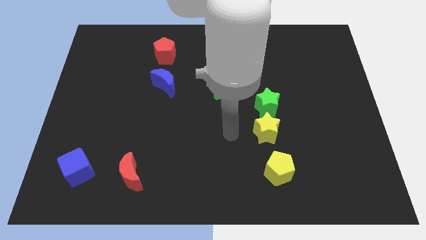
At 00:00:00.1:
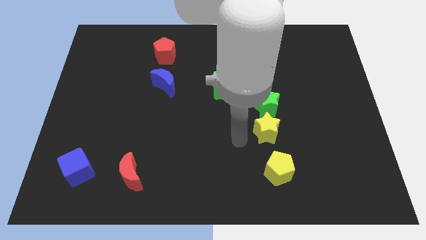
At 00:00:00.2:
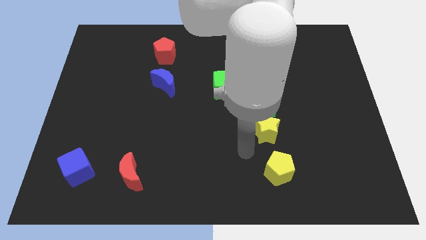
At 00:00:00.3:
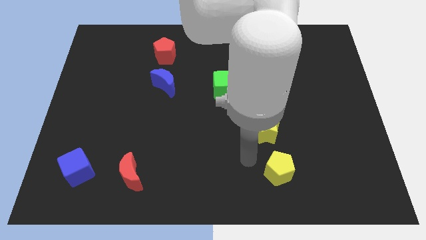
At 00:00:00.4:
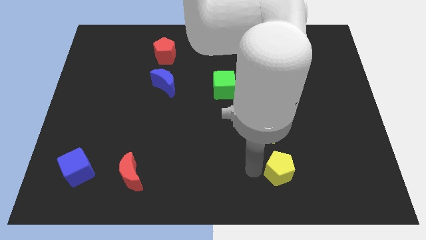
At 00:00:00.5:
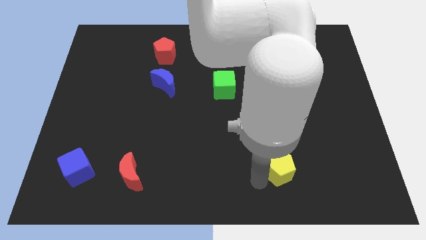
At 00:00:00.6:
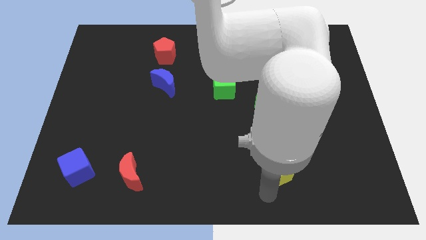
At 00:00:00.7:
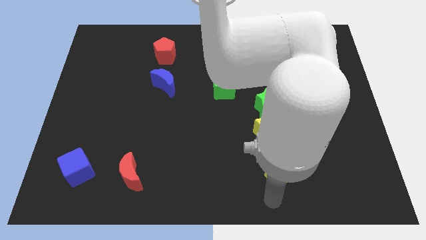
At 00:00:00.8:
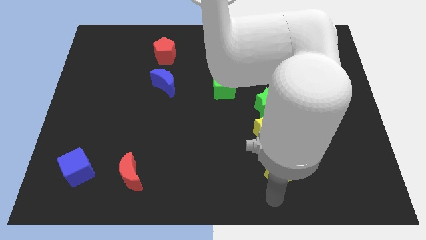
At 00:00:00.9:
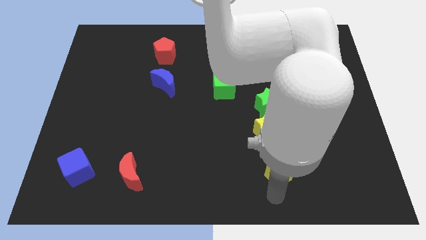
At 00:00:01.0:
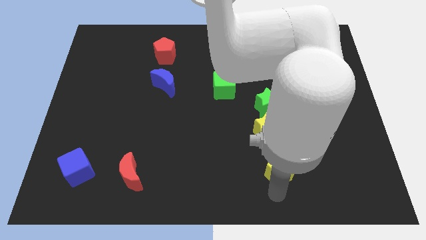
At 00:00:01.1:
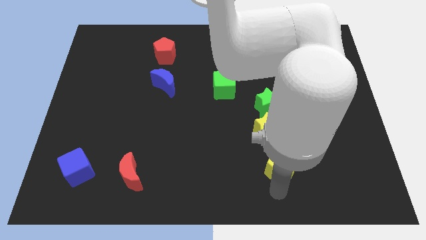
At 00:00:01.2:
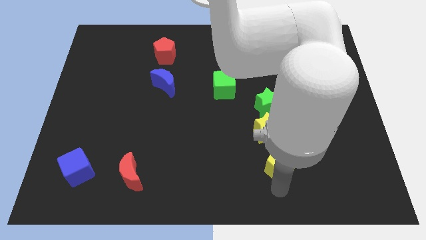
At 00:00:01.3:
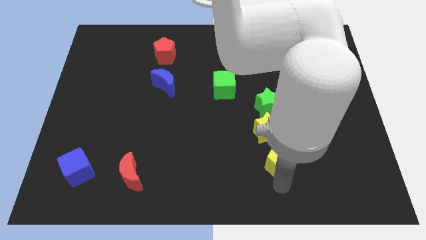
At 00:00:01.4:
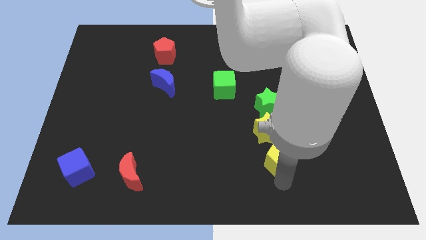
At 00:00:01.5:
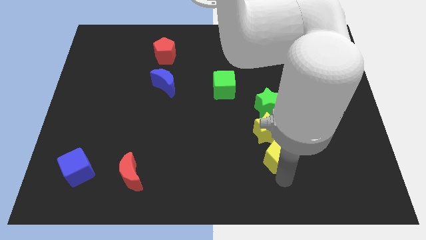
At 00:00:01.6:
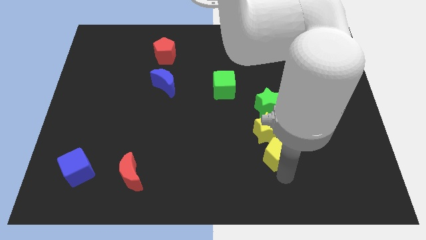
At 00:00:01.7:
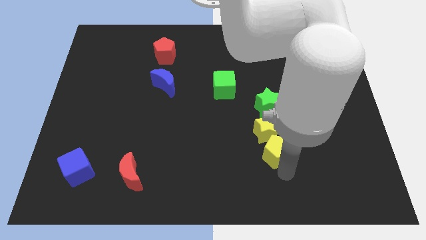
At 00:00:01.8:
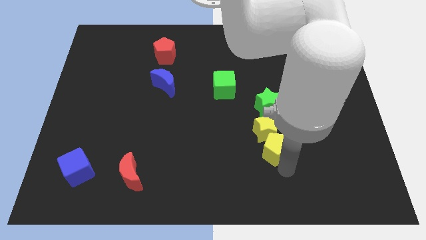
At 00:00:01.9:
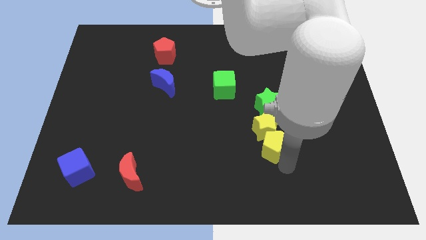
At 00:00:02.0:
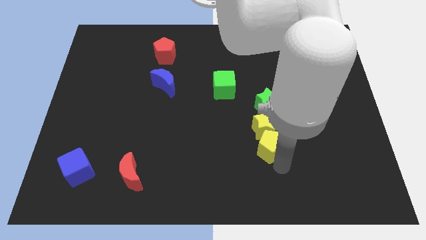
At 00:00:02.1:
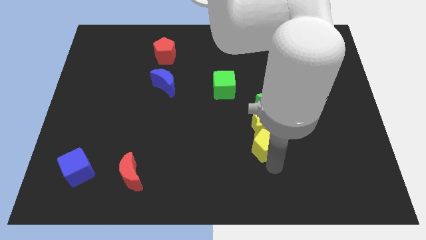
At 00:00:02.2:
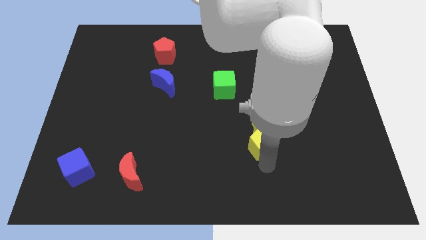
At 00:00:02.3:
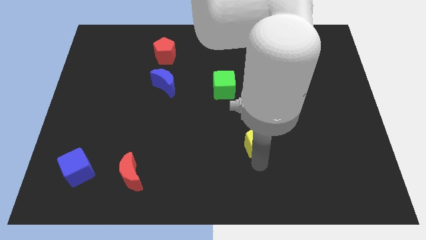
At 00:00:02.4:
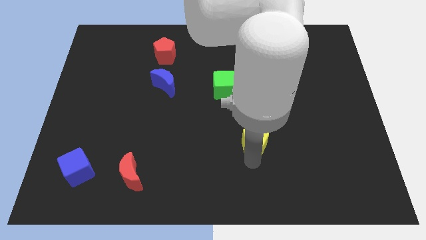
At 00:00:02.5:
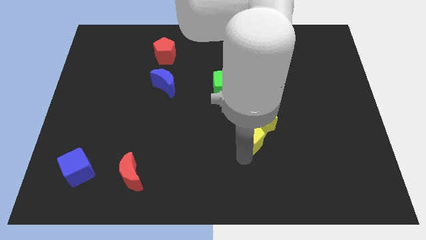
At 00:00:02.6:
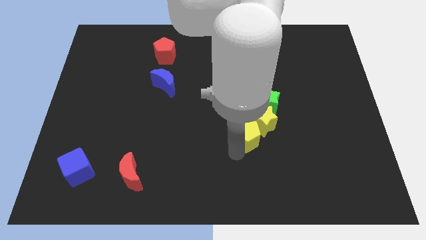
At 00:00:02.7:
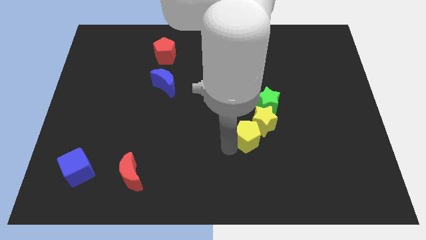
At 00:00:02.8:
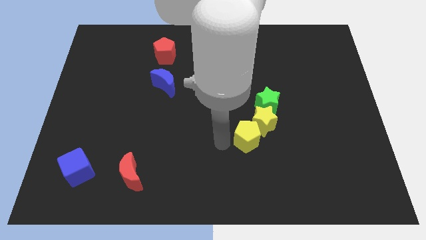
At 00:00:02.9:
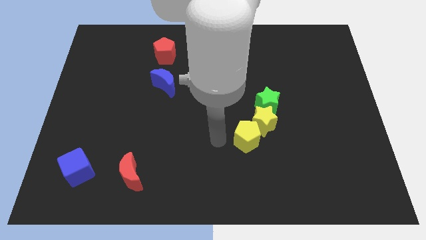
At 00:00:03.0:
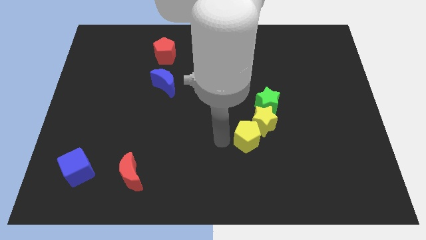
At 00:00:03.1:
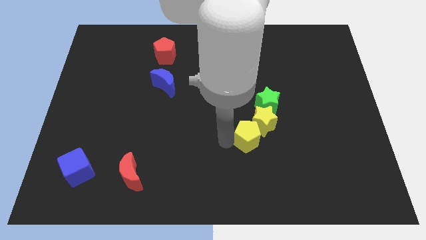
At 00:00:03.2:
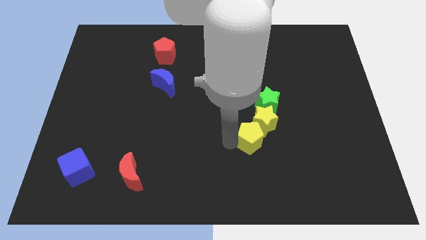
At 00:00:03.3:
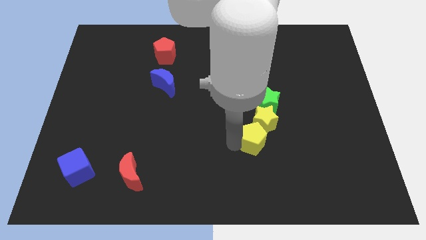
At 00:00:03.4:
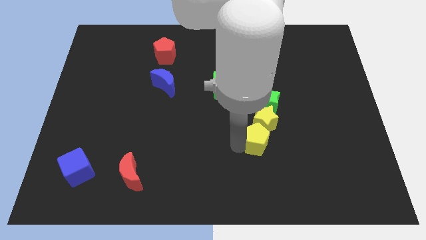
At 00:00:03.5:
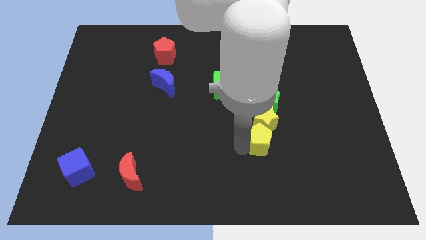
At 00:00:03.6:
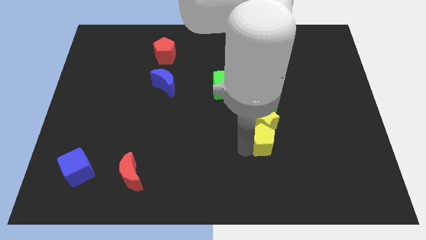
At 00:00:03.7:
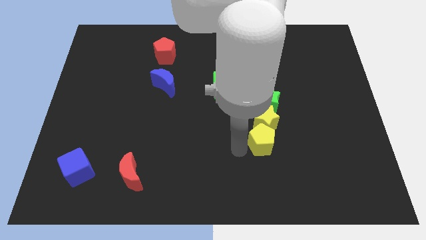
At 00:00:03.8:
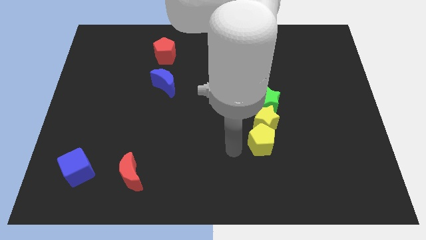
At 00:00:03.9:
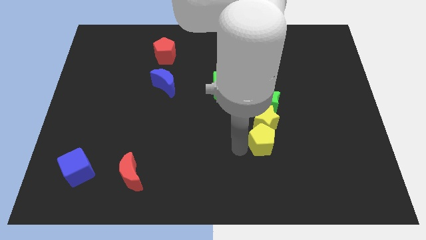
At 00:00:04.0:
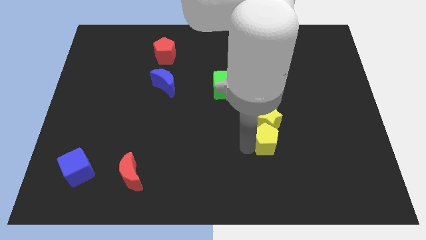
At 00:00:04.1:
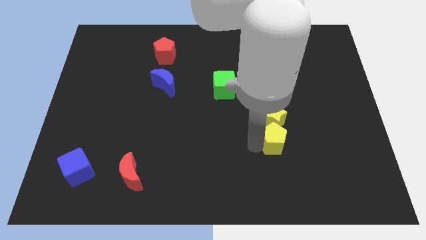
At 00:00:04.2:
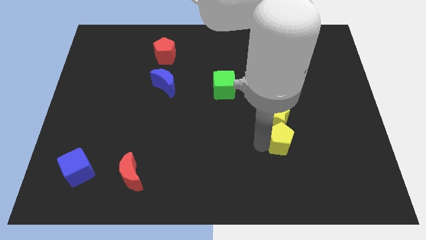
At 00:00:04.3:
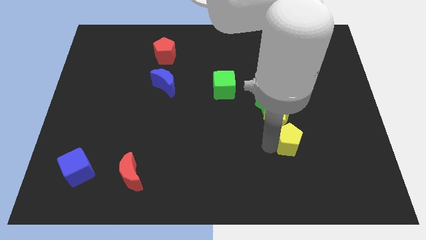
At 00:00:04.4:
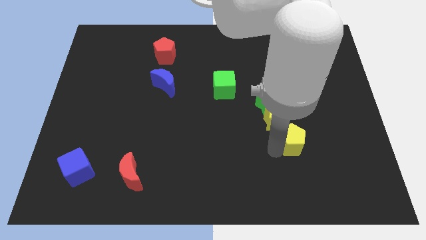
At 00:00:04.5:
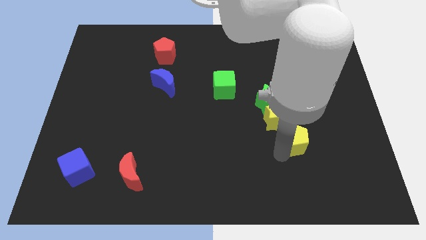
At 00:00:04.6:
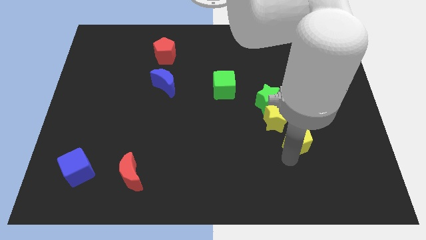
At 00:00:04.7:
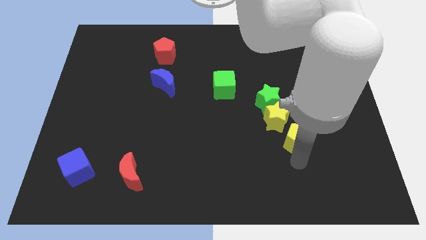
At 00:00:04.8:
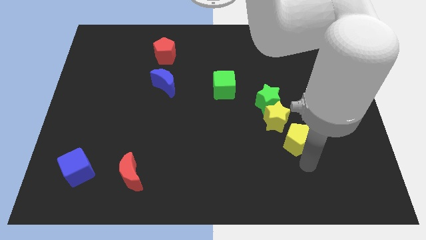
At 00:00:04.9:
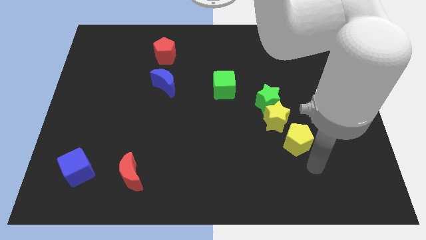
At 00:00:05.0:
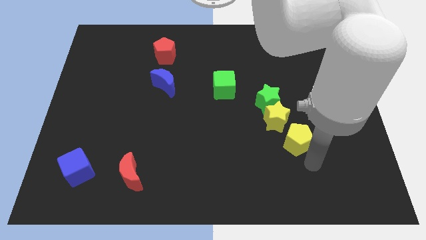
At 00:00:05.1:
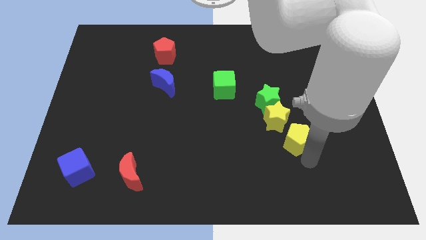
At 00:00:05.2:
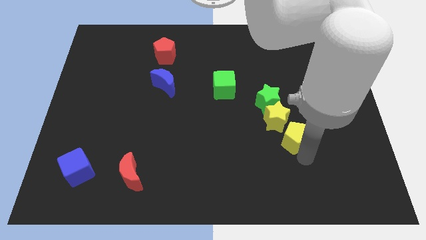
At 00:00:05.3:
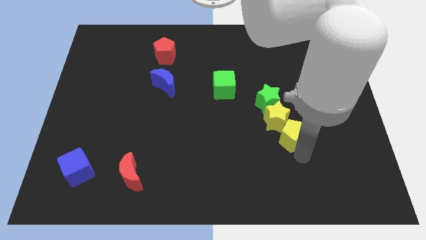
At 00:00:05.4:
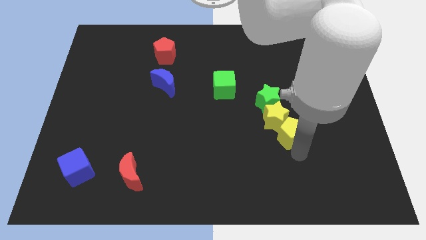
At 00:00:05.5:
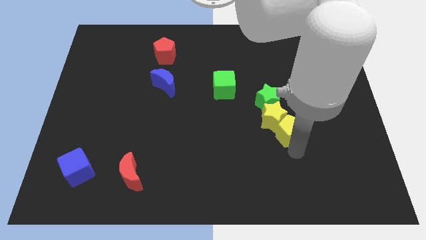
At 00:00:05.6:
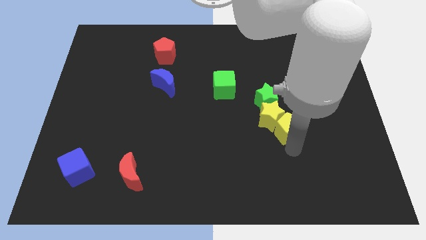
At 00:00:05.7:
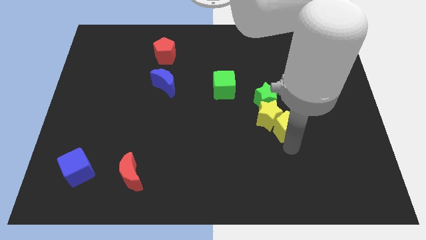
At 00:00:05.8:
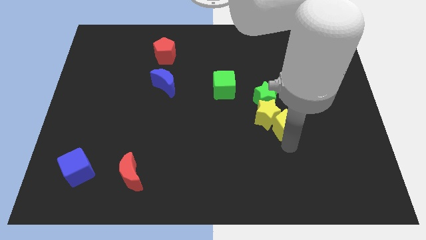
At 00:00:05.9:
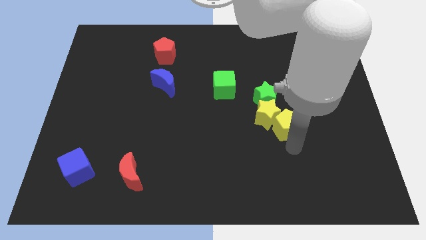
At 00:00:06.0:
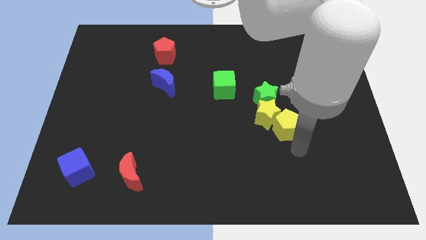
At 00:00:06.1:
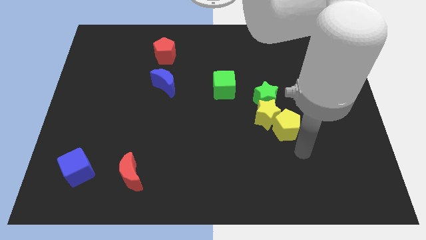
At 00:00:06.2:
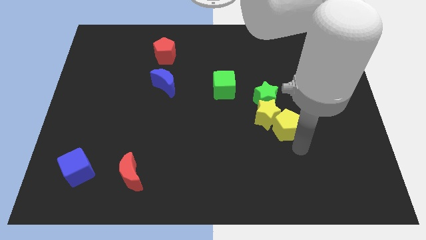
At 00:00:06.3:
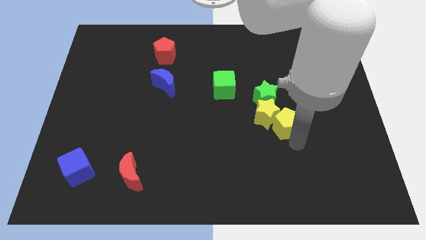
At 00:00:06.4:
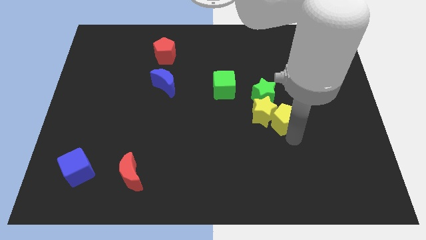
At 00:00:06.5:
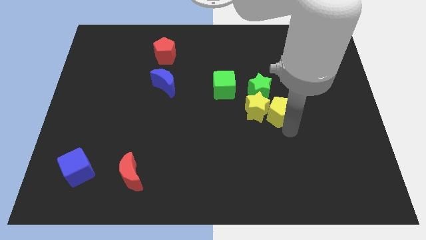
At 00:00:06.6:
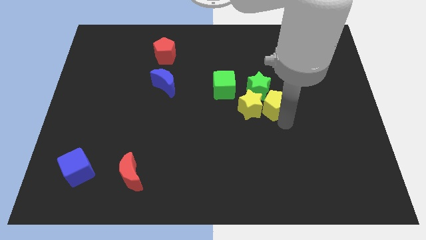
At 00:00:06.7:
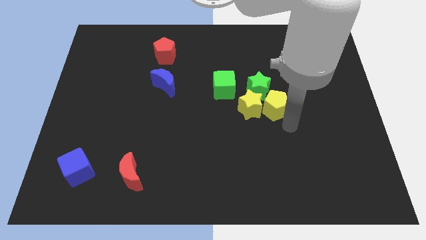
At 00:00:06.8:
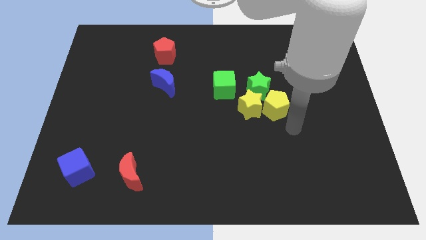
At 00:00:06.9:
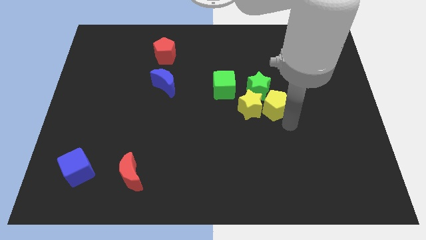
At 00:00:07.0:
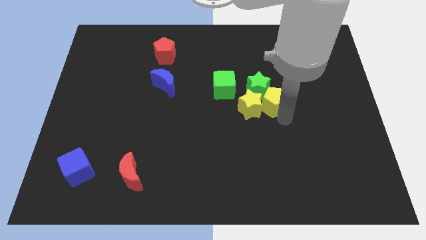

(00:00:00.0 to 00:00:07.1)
slide the yellow pentagon next to the green star
